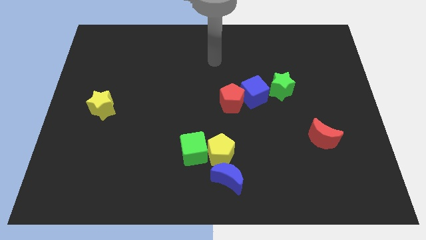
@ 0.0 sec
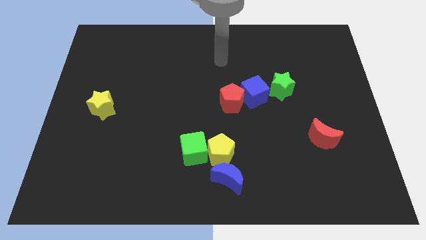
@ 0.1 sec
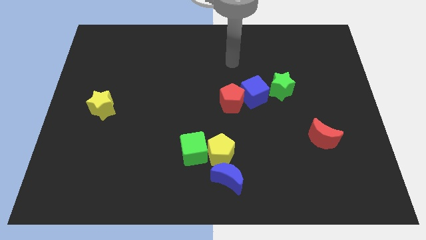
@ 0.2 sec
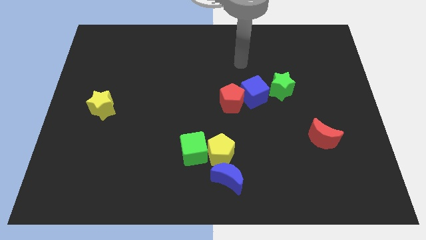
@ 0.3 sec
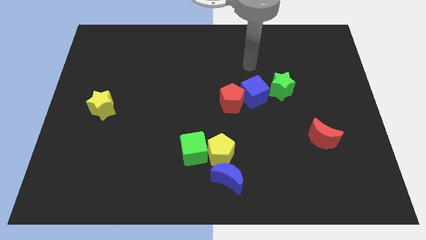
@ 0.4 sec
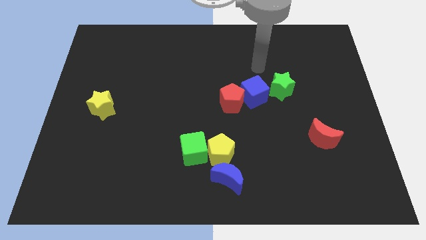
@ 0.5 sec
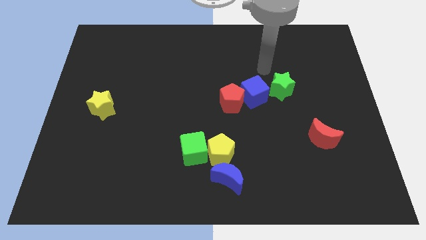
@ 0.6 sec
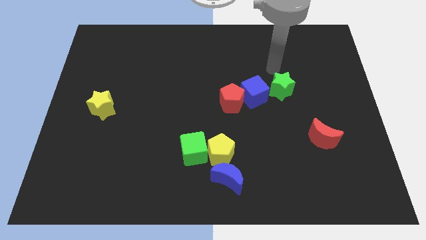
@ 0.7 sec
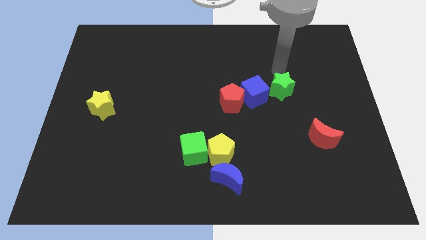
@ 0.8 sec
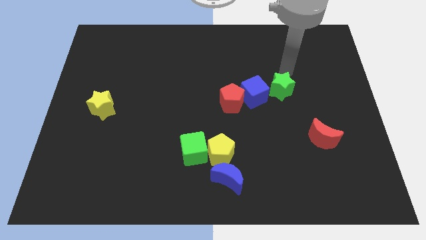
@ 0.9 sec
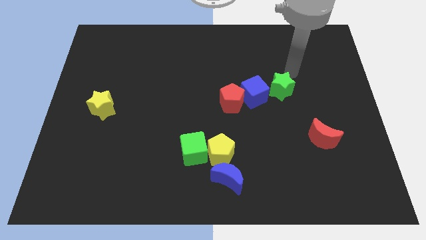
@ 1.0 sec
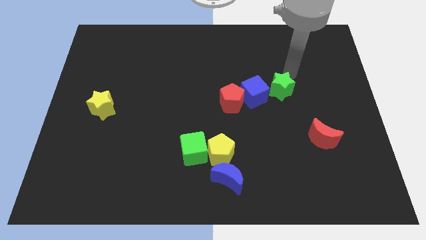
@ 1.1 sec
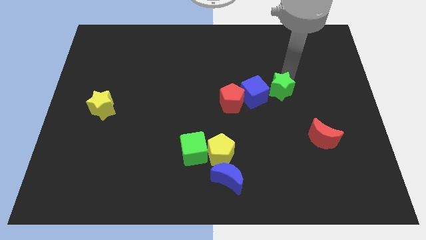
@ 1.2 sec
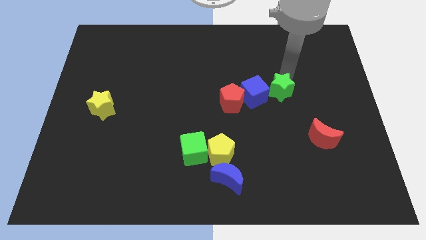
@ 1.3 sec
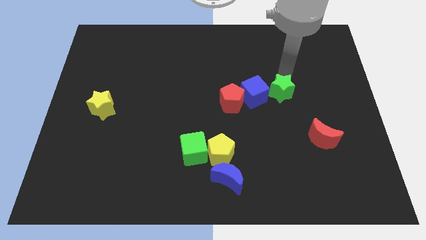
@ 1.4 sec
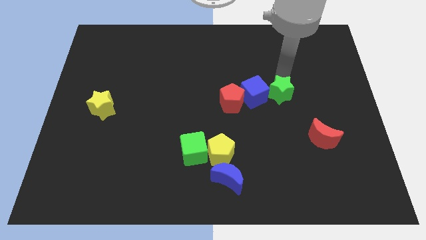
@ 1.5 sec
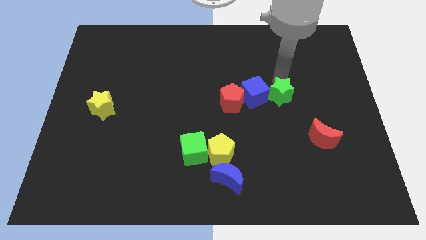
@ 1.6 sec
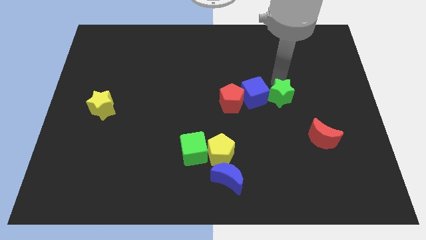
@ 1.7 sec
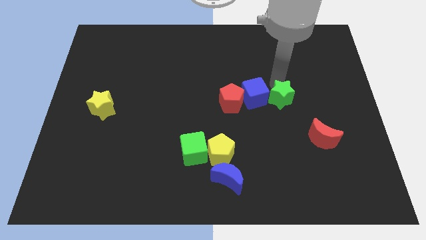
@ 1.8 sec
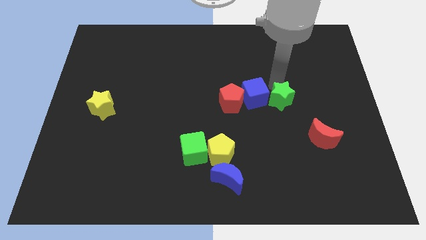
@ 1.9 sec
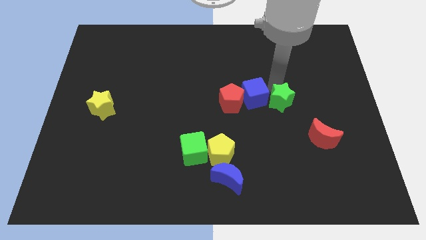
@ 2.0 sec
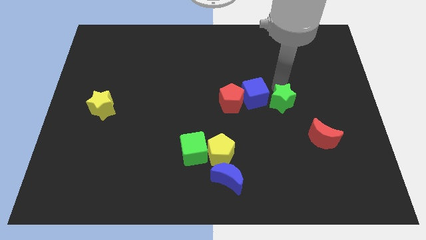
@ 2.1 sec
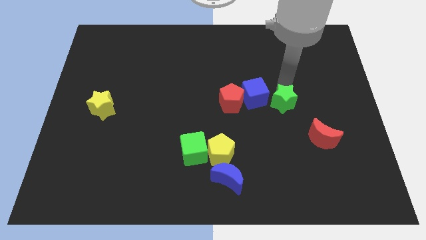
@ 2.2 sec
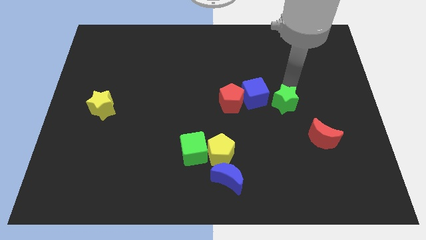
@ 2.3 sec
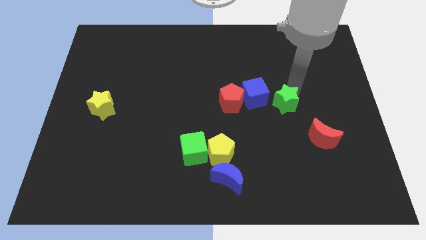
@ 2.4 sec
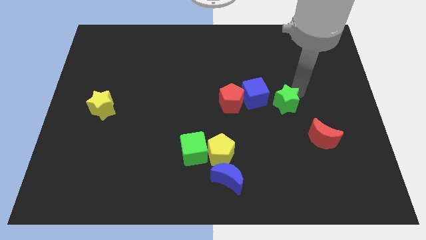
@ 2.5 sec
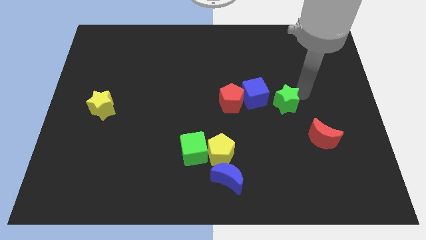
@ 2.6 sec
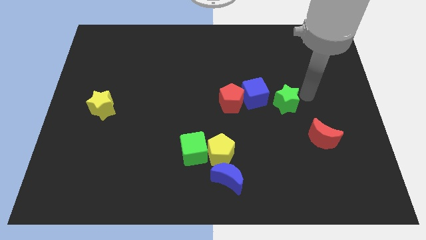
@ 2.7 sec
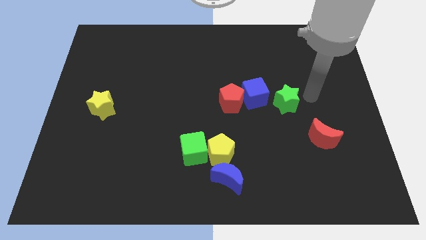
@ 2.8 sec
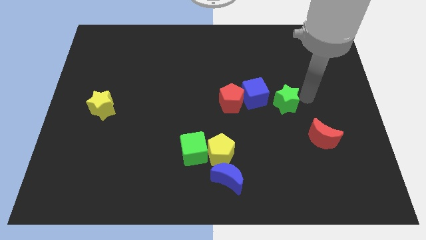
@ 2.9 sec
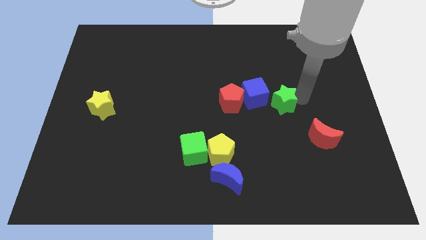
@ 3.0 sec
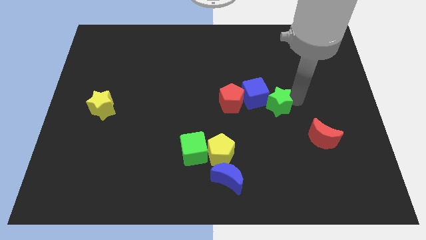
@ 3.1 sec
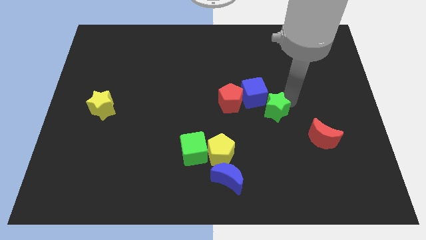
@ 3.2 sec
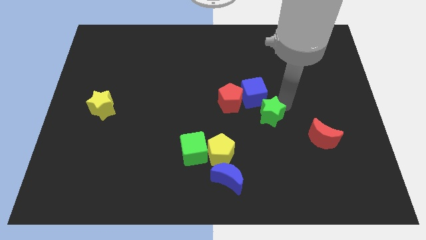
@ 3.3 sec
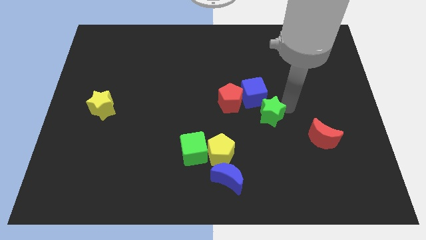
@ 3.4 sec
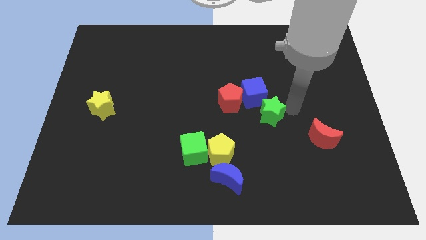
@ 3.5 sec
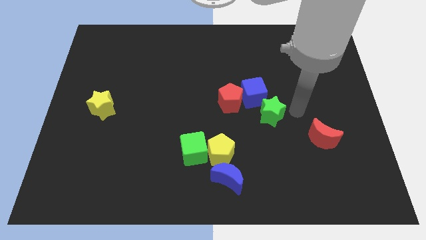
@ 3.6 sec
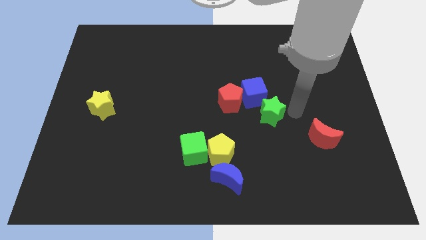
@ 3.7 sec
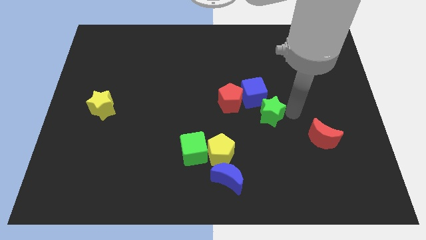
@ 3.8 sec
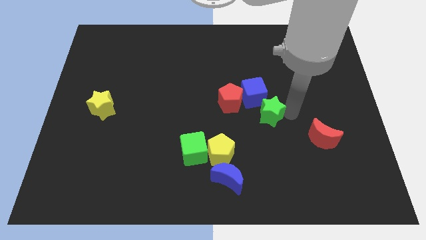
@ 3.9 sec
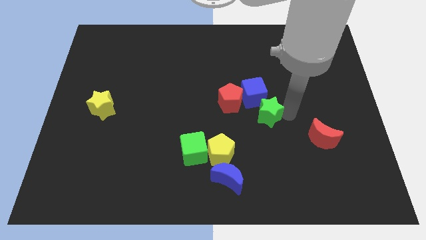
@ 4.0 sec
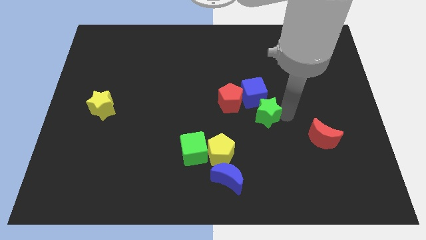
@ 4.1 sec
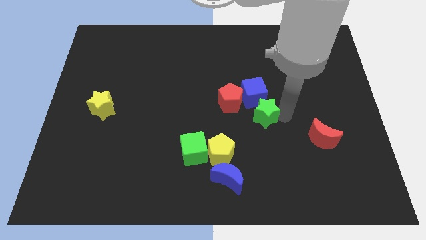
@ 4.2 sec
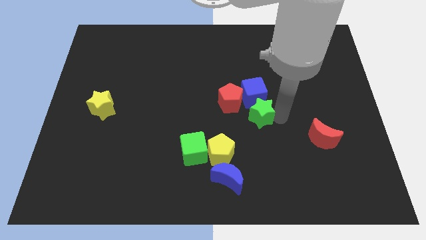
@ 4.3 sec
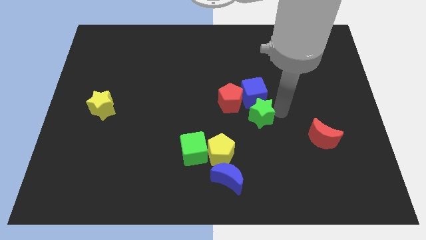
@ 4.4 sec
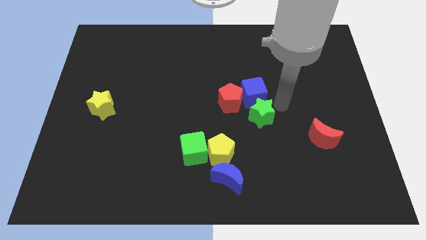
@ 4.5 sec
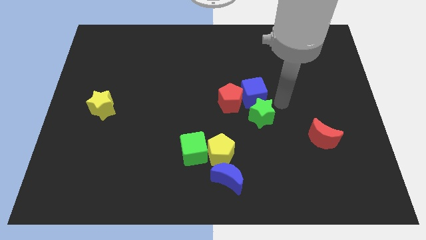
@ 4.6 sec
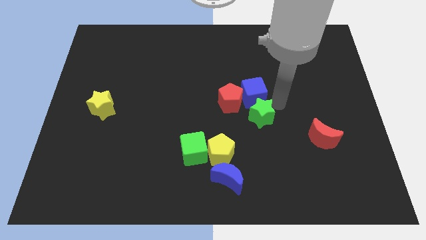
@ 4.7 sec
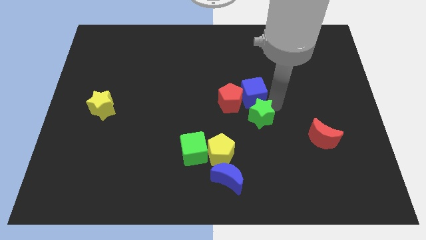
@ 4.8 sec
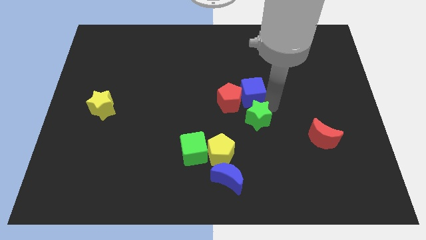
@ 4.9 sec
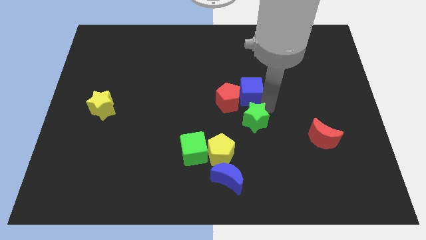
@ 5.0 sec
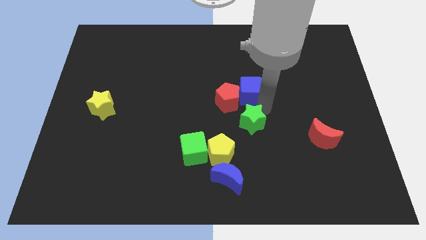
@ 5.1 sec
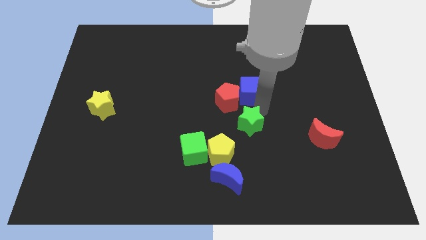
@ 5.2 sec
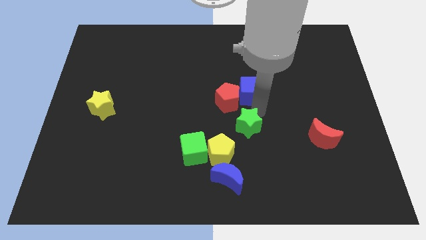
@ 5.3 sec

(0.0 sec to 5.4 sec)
push the green star above the blue moon

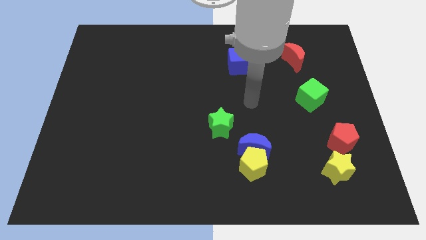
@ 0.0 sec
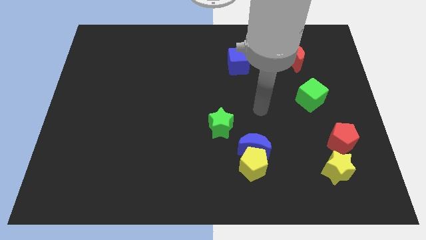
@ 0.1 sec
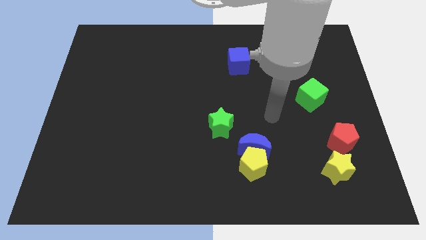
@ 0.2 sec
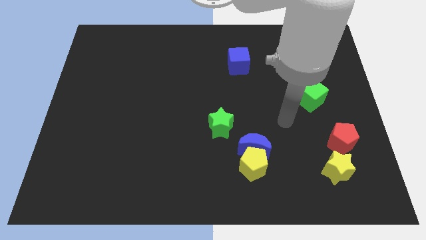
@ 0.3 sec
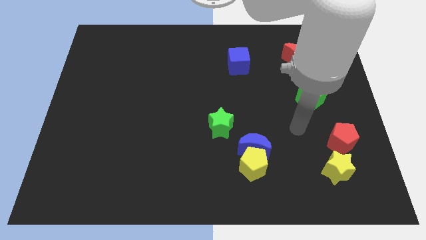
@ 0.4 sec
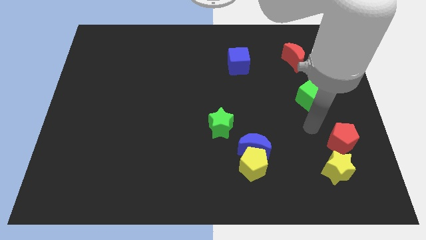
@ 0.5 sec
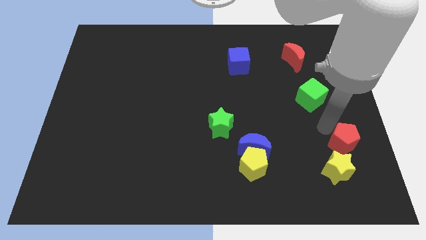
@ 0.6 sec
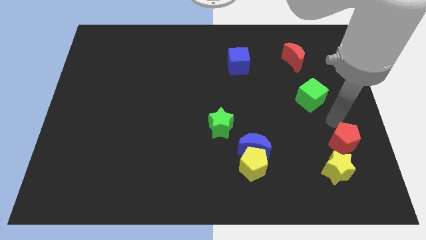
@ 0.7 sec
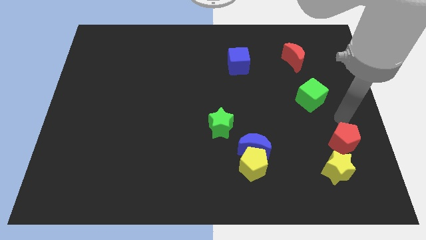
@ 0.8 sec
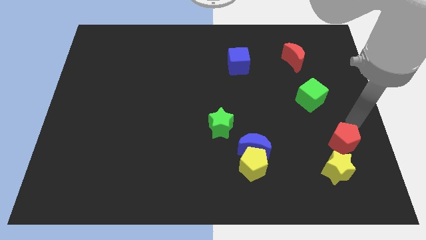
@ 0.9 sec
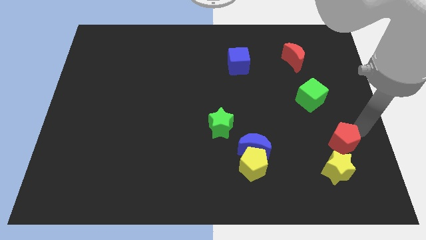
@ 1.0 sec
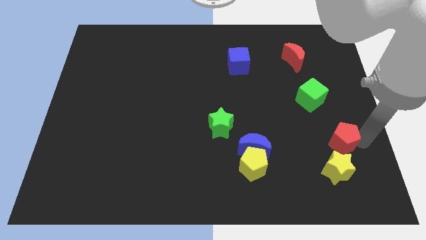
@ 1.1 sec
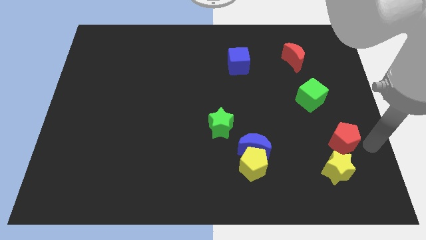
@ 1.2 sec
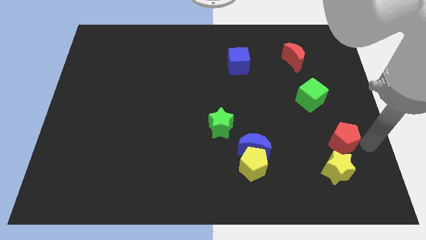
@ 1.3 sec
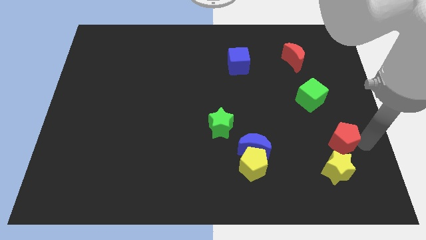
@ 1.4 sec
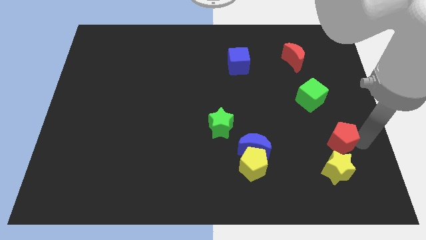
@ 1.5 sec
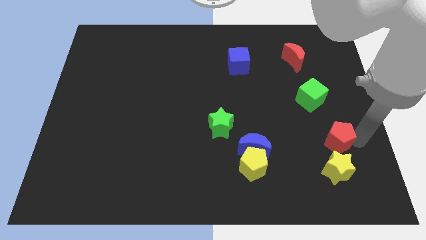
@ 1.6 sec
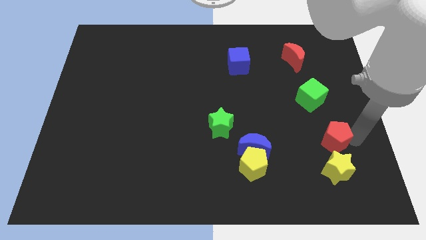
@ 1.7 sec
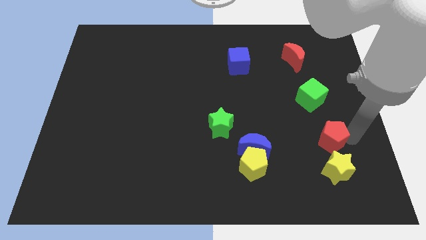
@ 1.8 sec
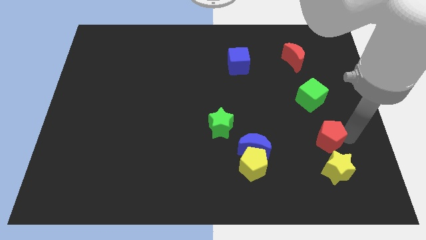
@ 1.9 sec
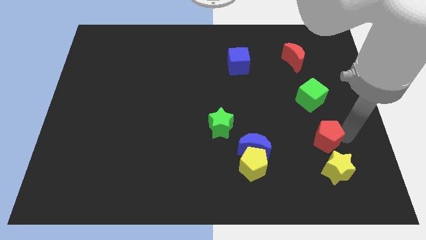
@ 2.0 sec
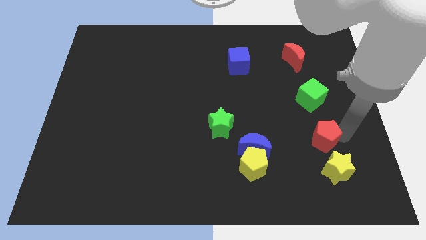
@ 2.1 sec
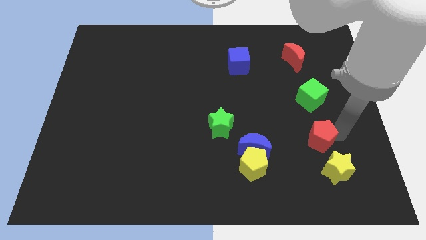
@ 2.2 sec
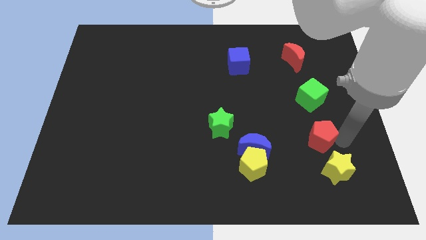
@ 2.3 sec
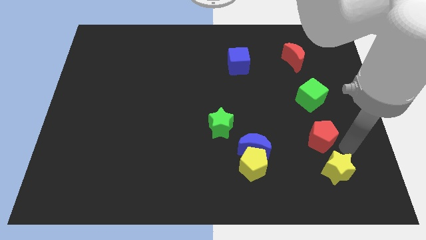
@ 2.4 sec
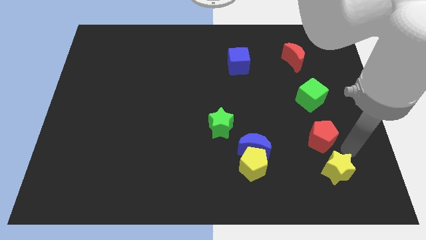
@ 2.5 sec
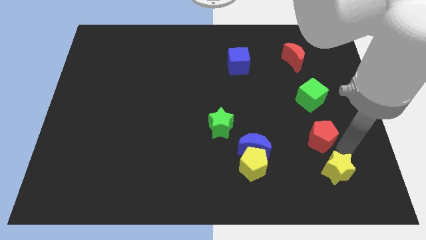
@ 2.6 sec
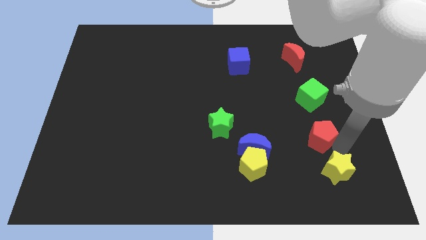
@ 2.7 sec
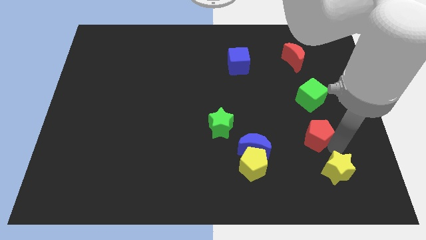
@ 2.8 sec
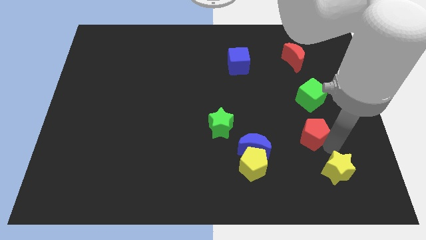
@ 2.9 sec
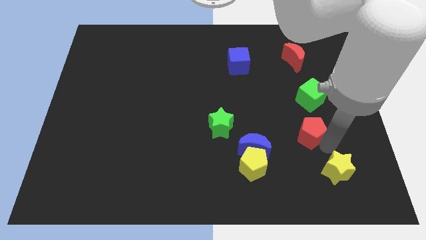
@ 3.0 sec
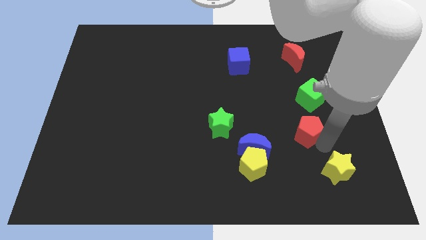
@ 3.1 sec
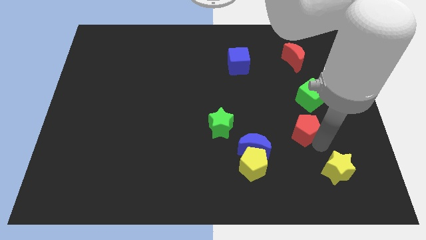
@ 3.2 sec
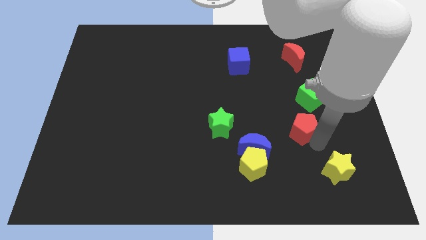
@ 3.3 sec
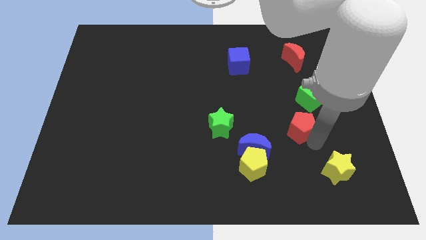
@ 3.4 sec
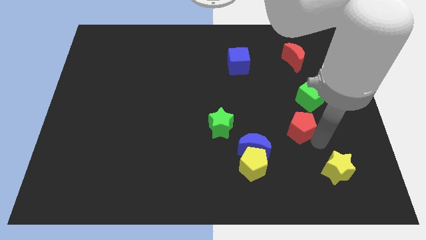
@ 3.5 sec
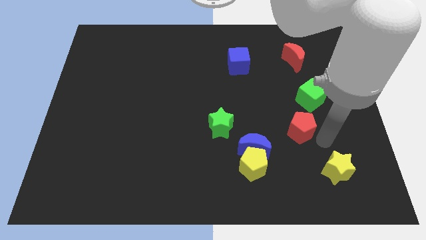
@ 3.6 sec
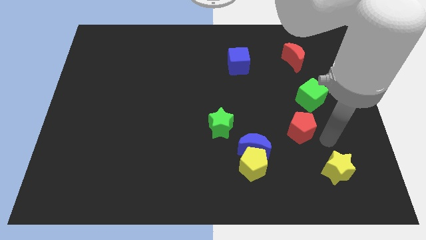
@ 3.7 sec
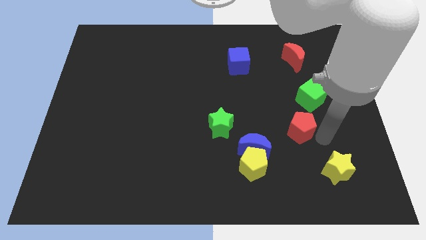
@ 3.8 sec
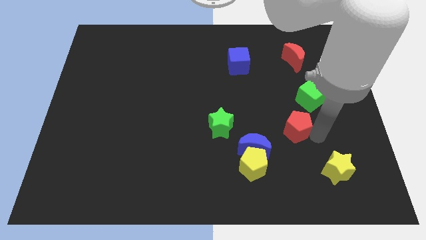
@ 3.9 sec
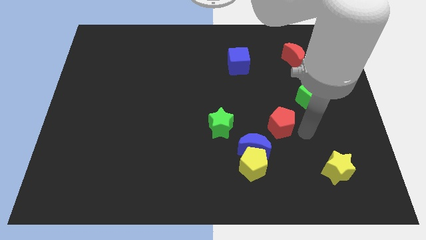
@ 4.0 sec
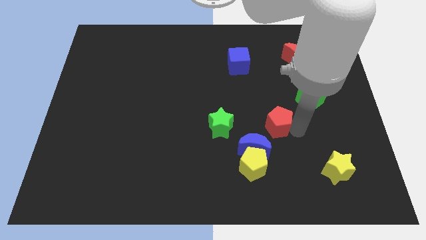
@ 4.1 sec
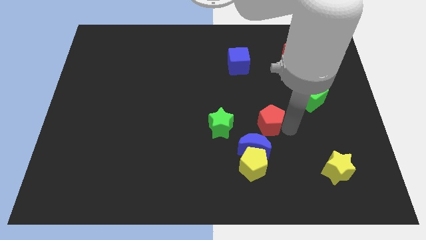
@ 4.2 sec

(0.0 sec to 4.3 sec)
put the red pentagon to the top of the blue moon
